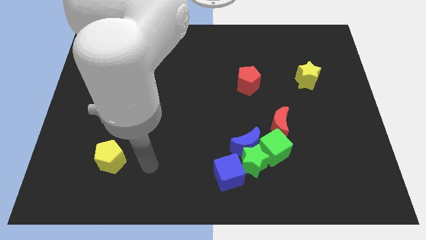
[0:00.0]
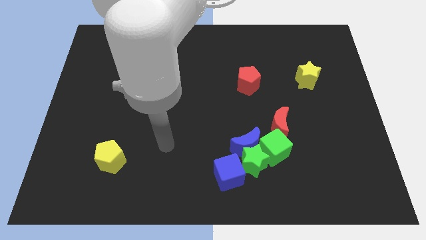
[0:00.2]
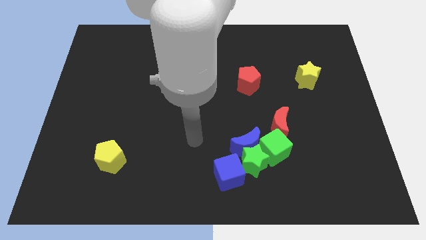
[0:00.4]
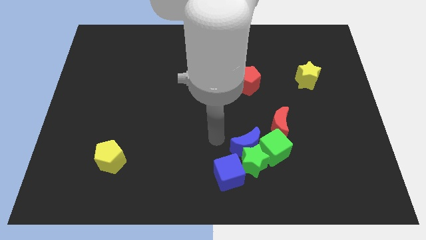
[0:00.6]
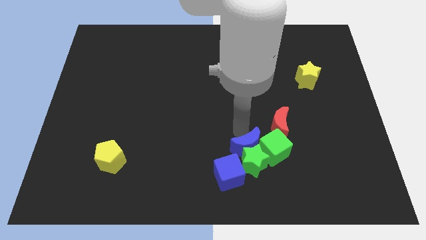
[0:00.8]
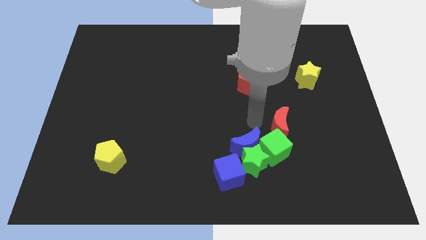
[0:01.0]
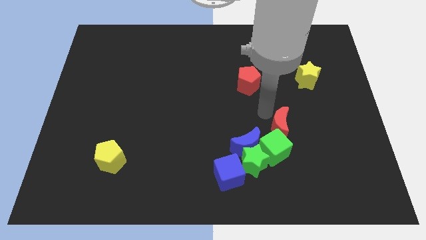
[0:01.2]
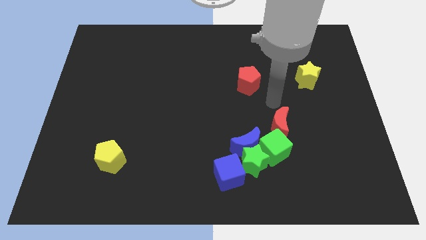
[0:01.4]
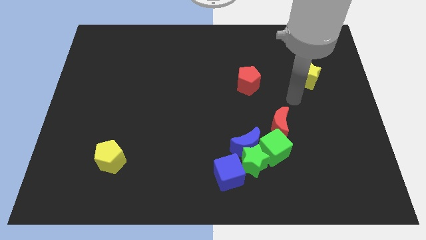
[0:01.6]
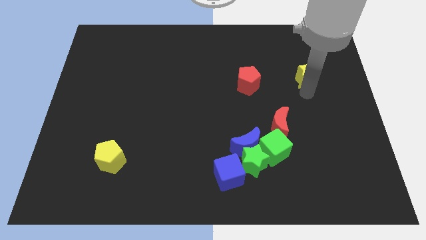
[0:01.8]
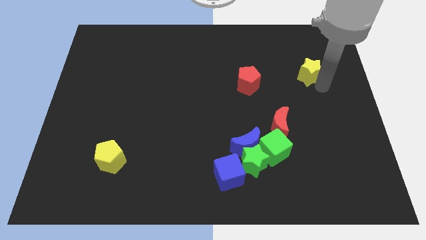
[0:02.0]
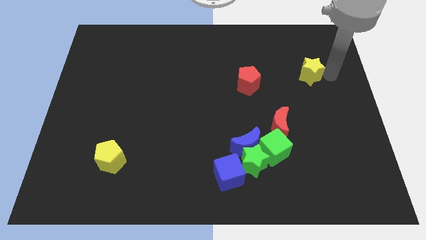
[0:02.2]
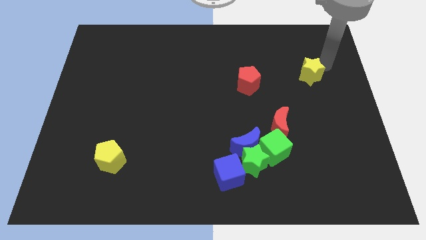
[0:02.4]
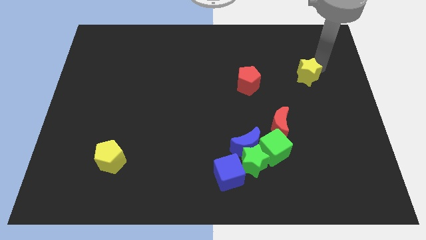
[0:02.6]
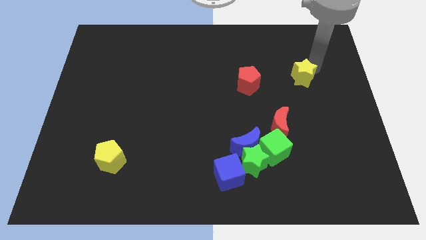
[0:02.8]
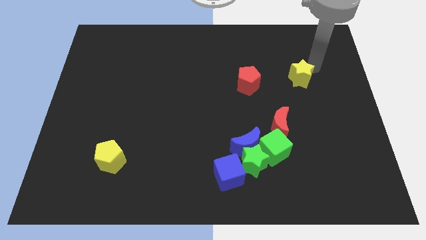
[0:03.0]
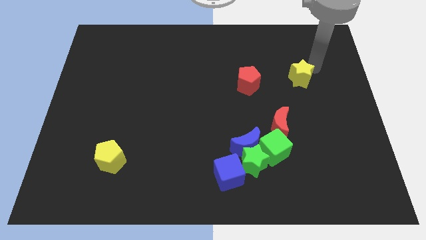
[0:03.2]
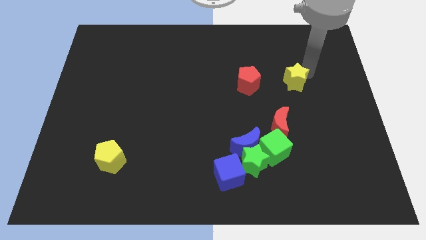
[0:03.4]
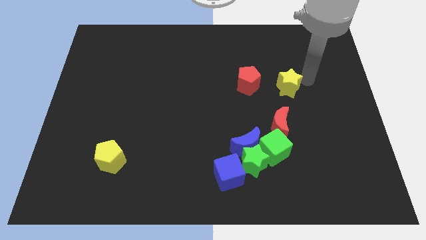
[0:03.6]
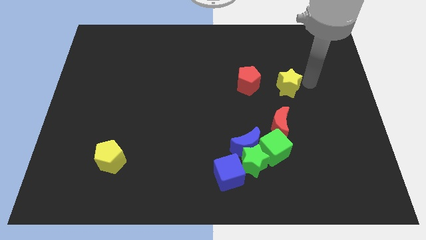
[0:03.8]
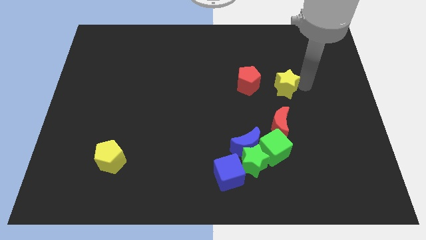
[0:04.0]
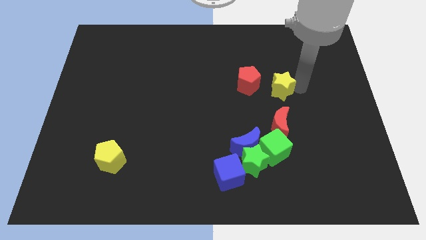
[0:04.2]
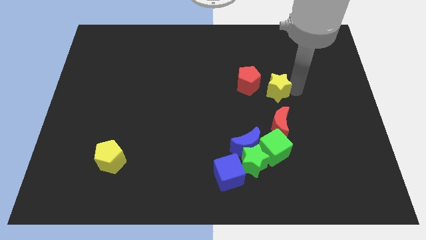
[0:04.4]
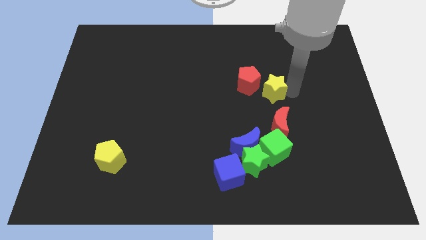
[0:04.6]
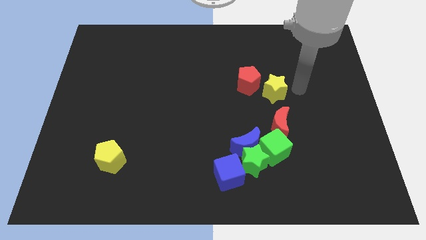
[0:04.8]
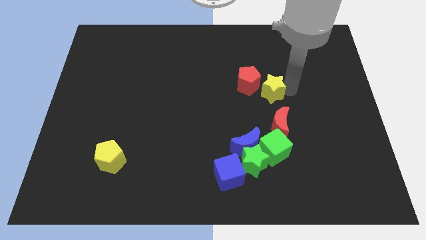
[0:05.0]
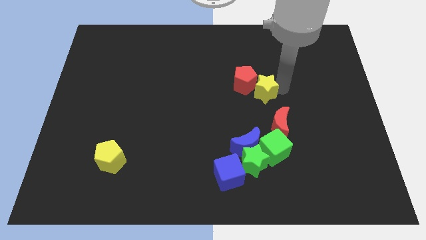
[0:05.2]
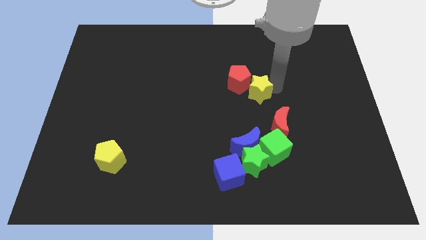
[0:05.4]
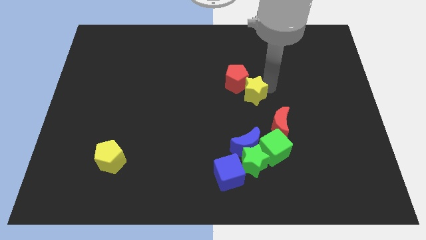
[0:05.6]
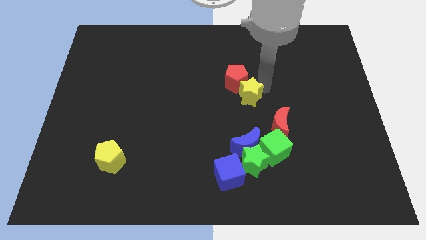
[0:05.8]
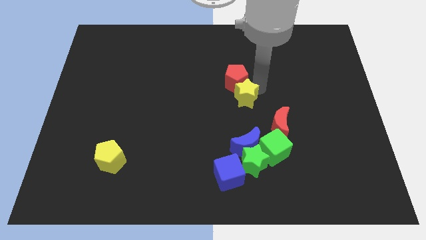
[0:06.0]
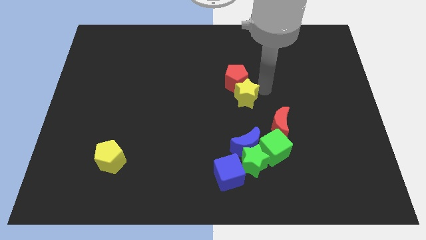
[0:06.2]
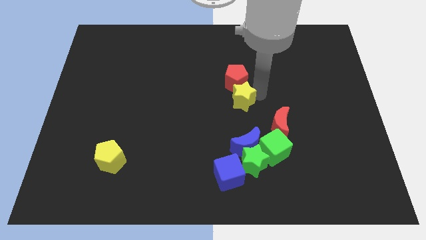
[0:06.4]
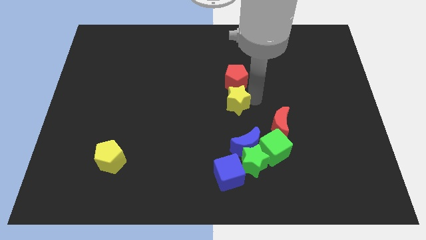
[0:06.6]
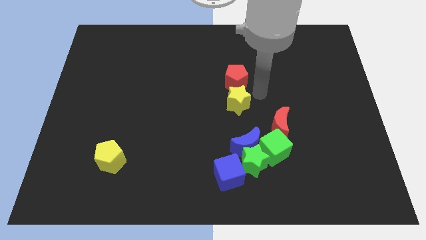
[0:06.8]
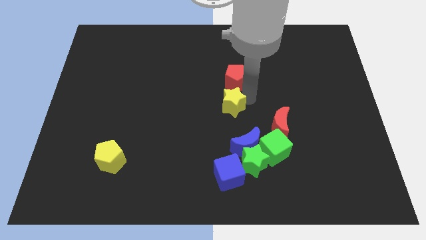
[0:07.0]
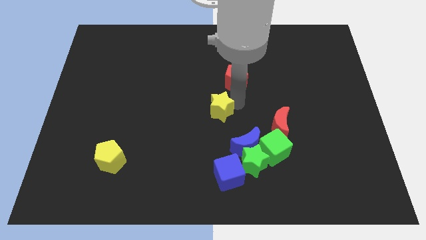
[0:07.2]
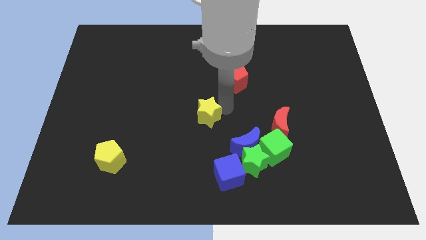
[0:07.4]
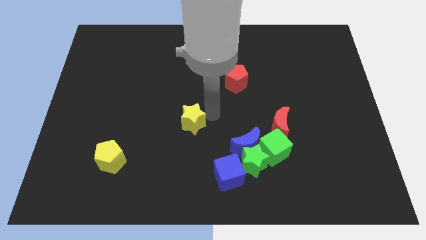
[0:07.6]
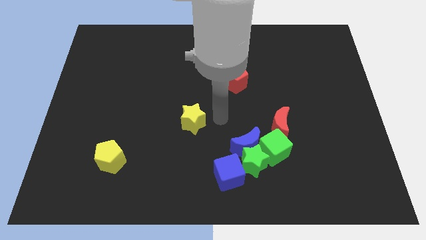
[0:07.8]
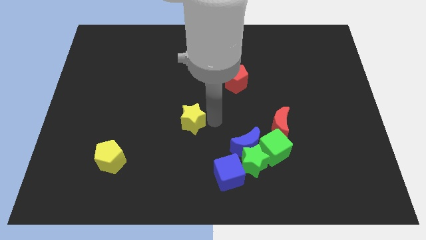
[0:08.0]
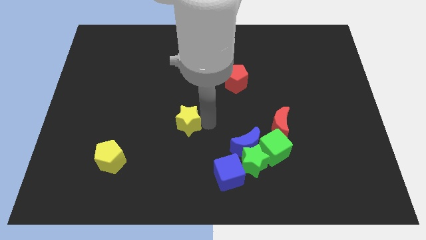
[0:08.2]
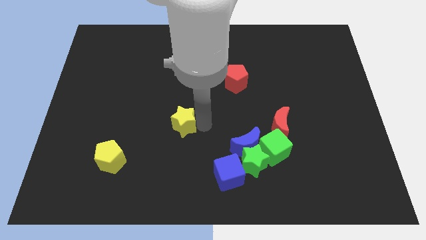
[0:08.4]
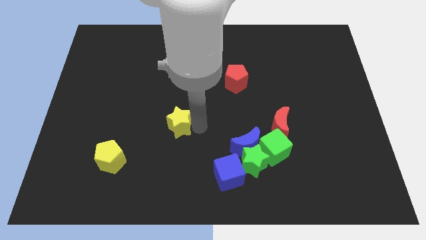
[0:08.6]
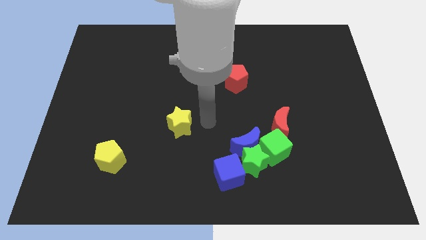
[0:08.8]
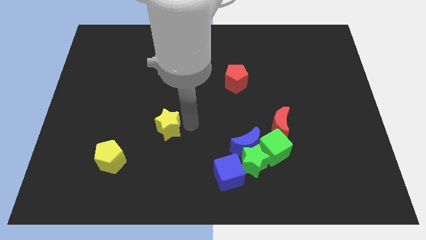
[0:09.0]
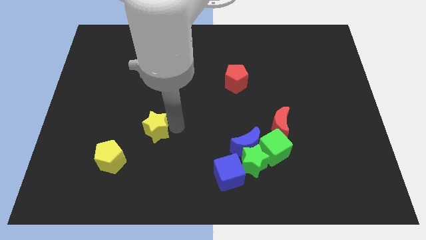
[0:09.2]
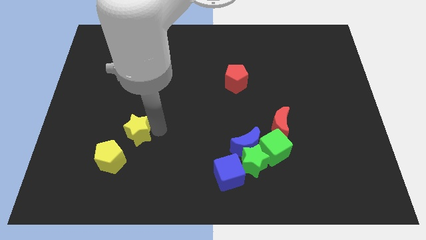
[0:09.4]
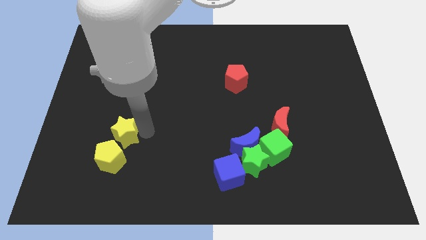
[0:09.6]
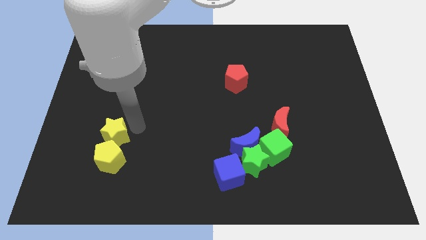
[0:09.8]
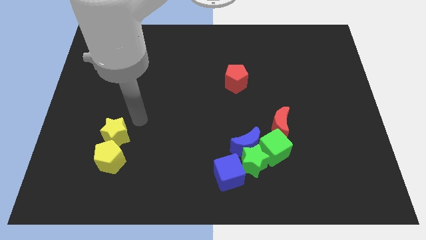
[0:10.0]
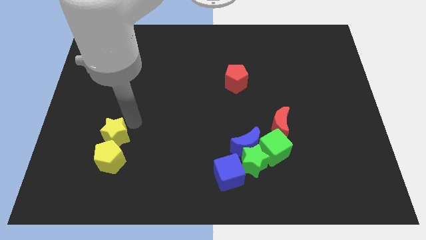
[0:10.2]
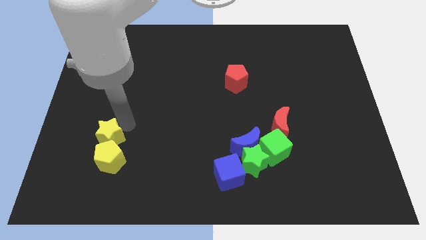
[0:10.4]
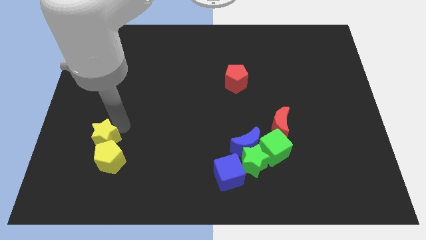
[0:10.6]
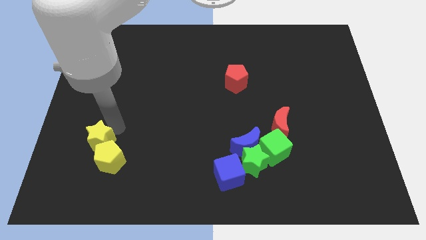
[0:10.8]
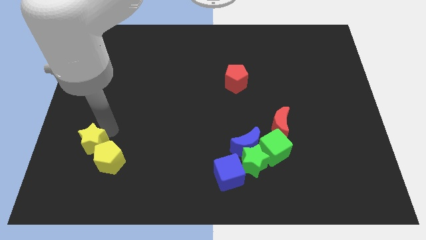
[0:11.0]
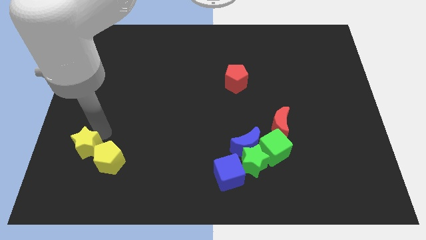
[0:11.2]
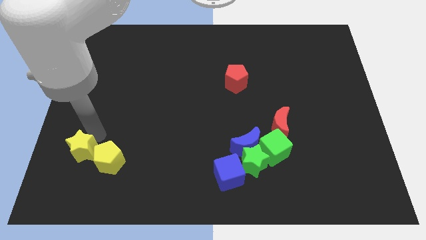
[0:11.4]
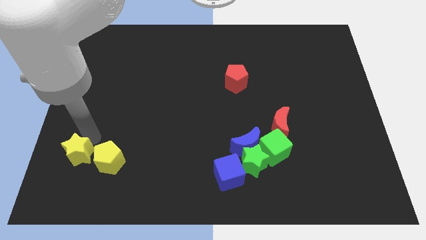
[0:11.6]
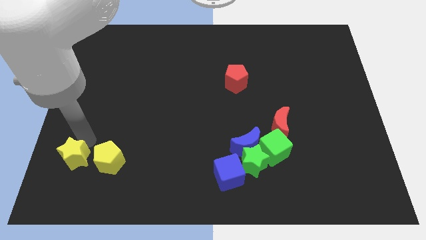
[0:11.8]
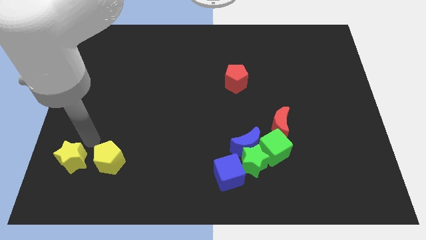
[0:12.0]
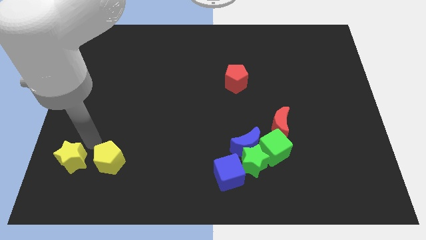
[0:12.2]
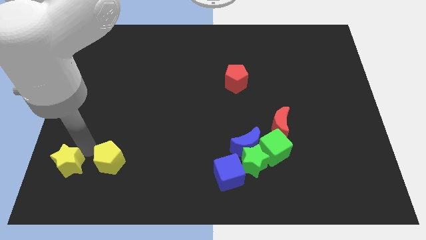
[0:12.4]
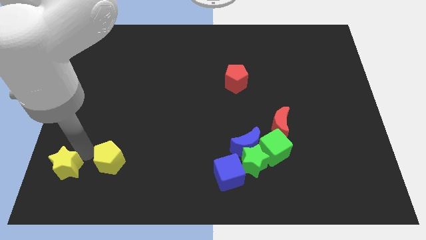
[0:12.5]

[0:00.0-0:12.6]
put the yellow star to the bottom left
